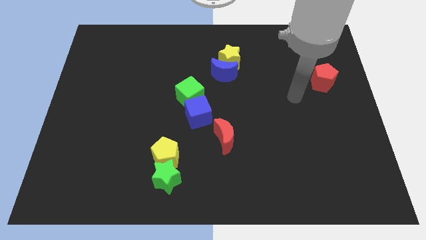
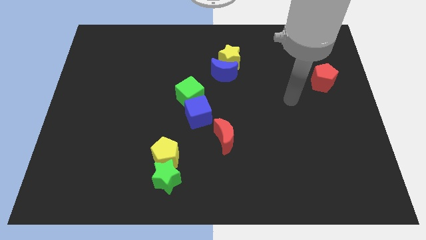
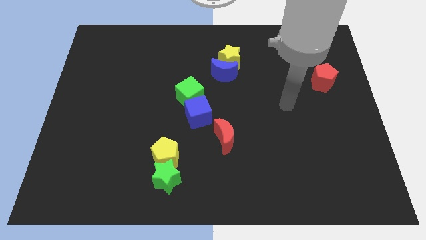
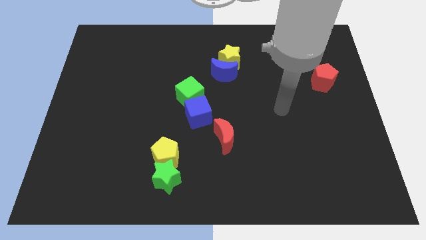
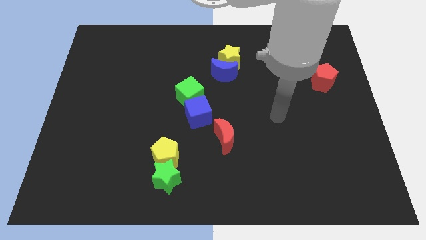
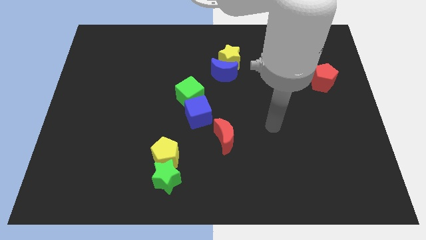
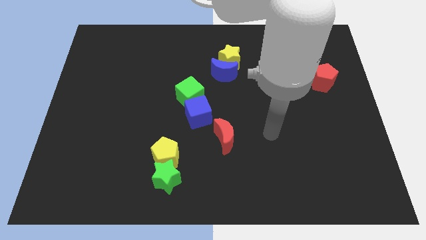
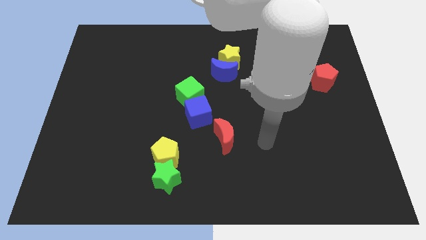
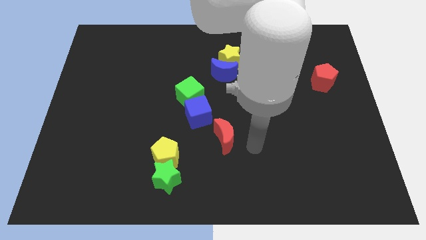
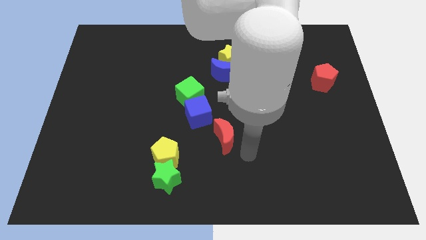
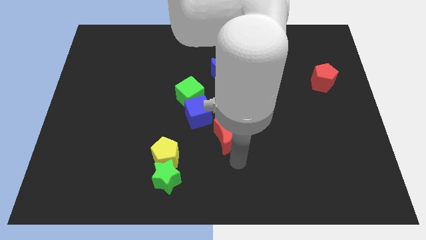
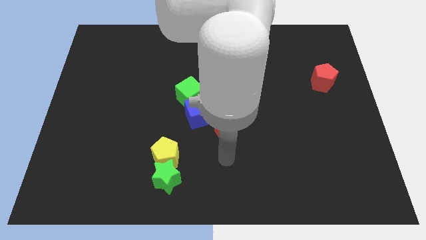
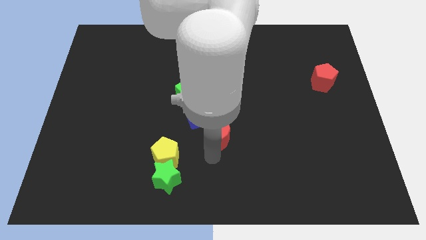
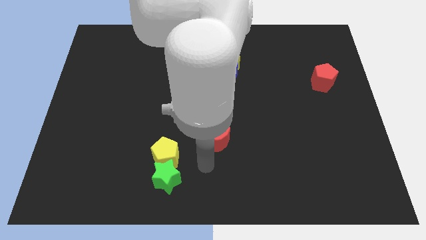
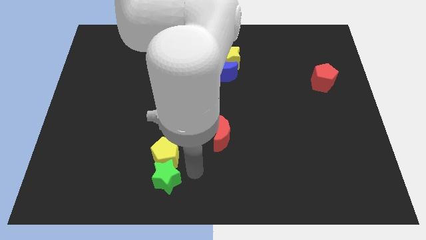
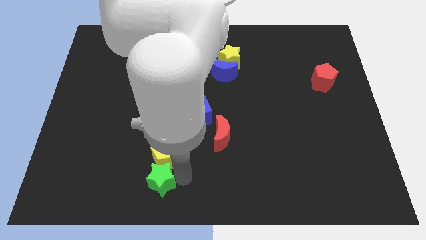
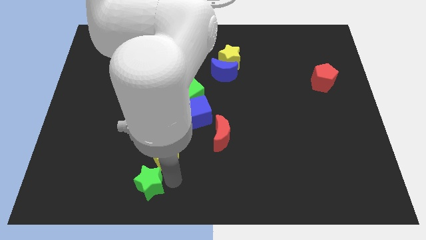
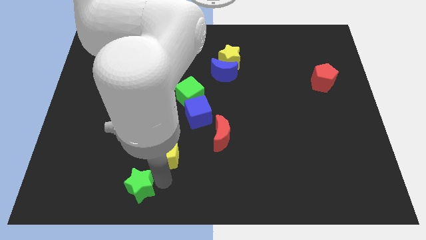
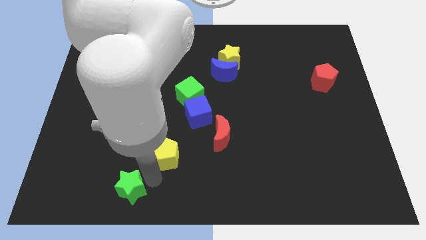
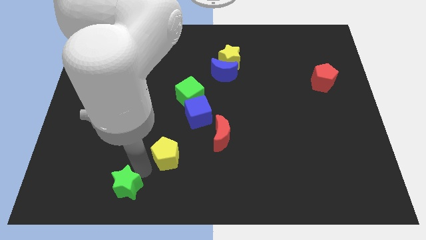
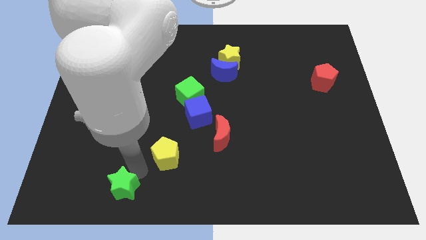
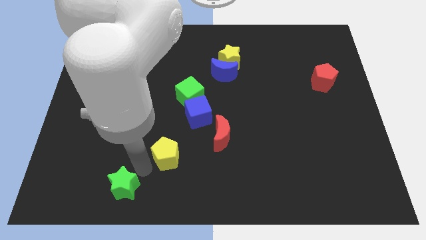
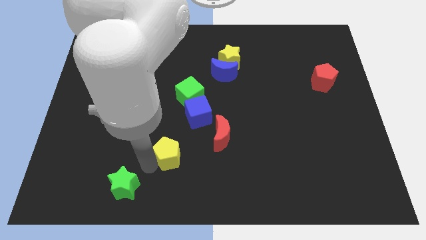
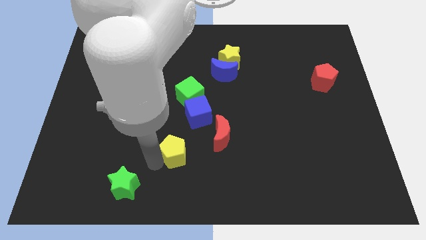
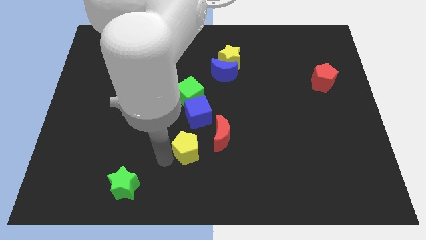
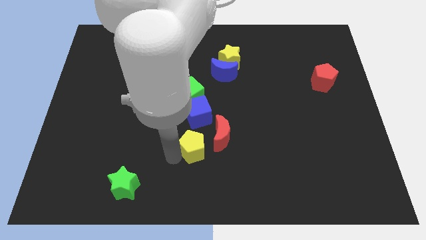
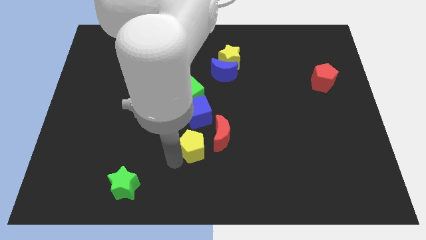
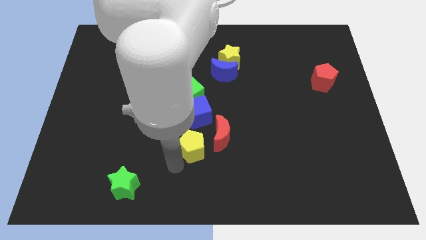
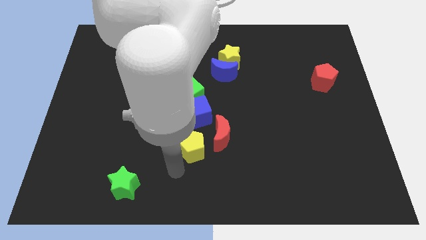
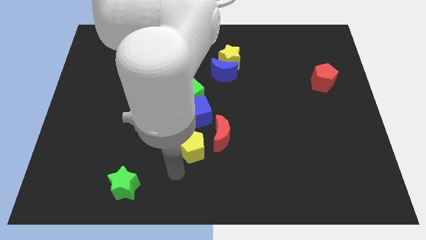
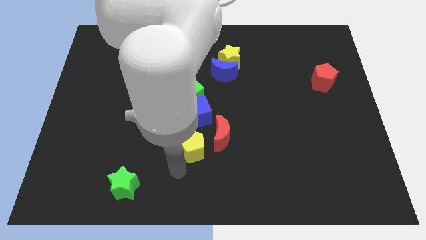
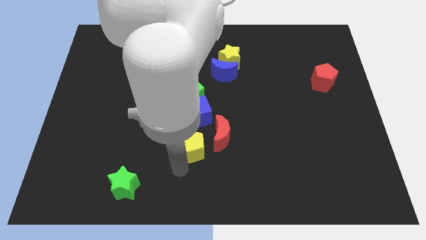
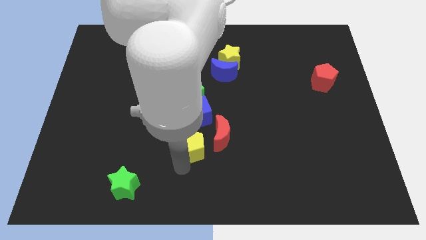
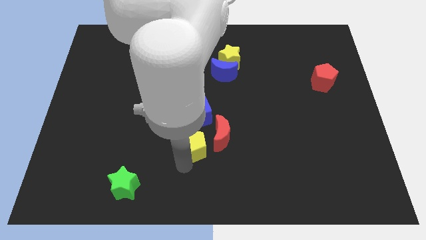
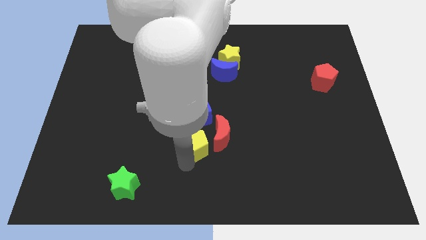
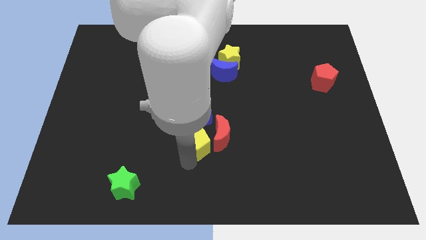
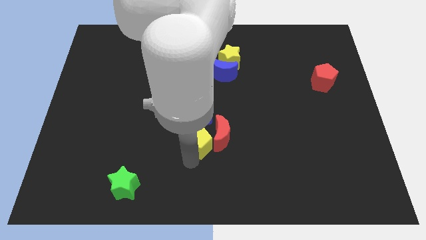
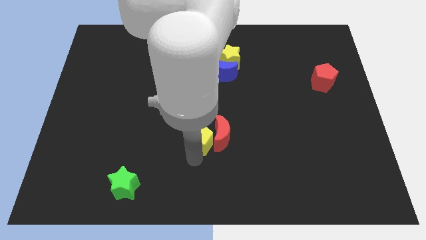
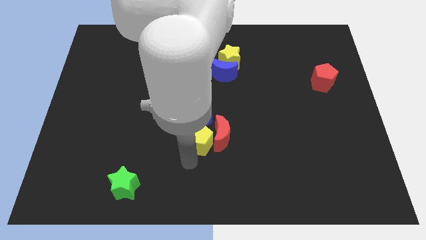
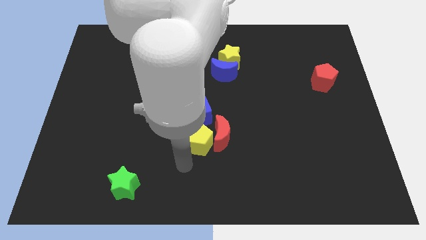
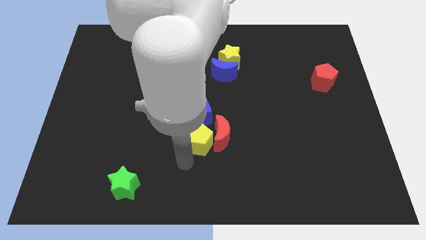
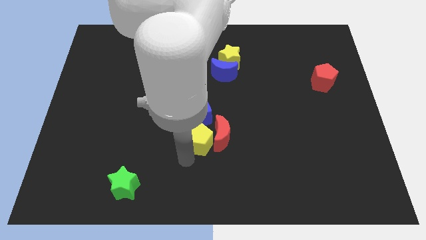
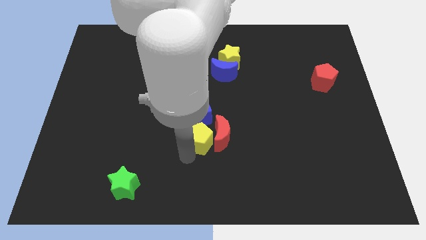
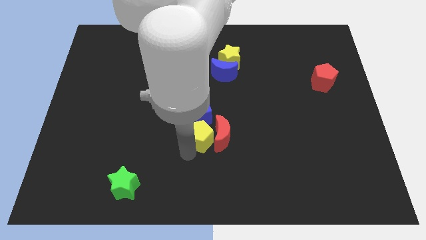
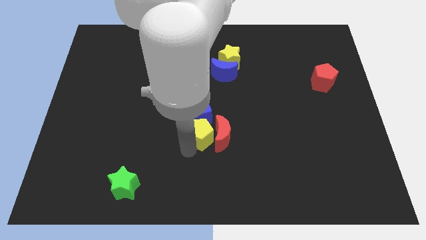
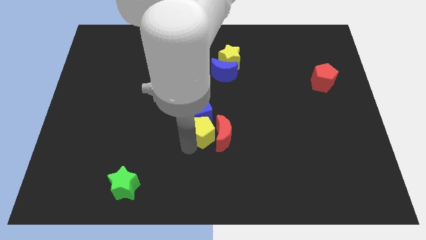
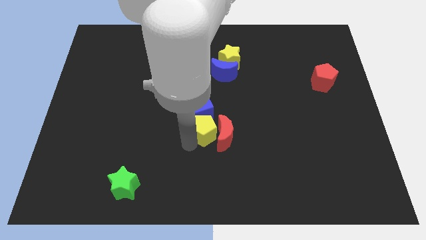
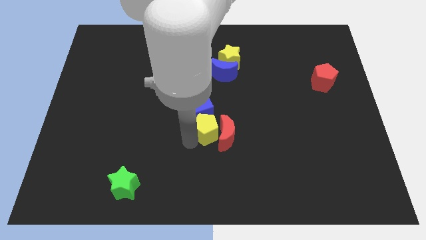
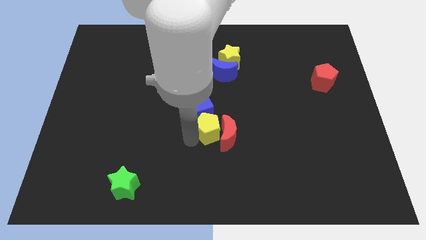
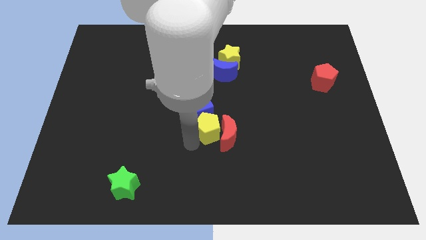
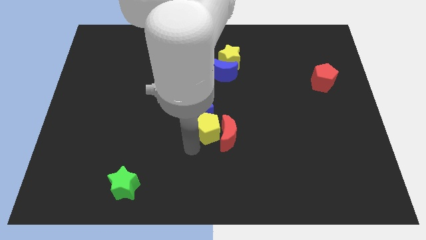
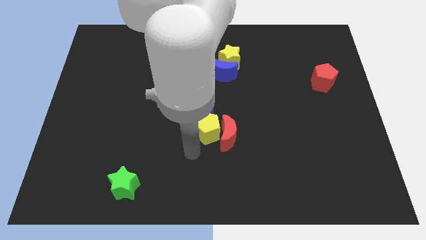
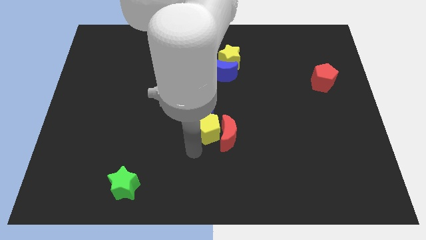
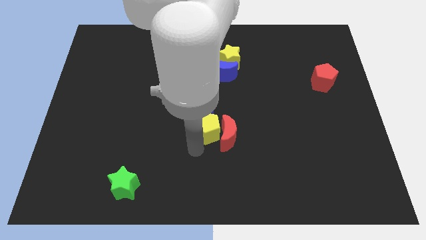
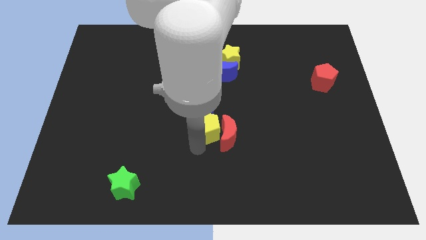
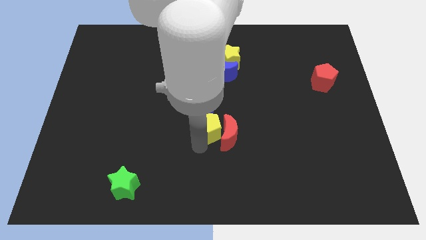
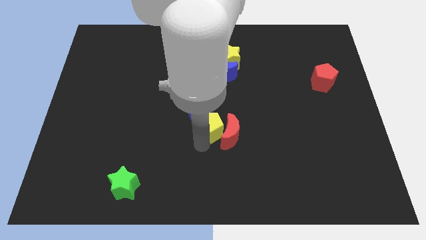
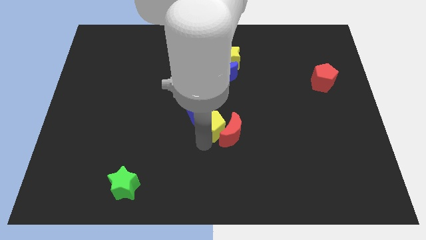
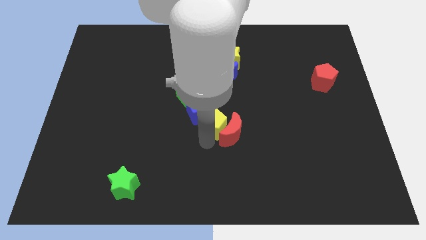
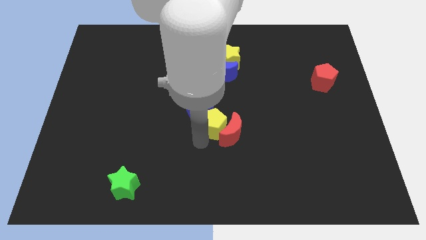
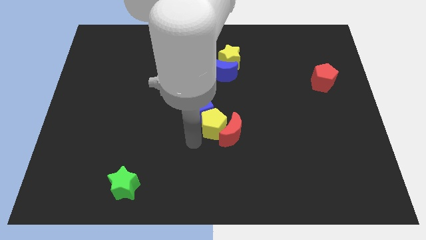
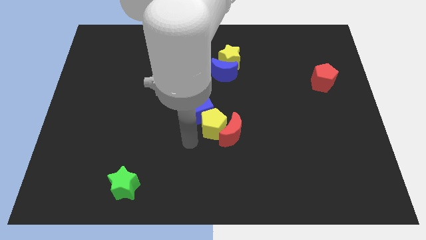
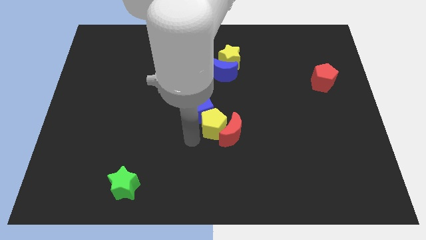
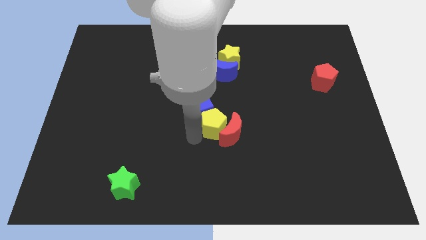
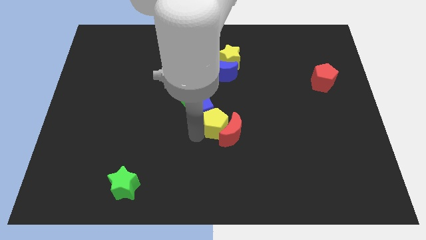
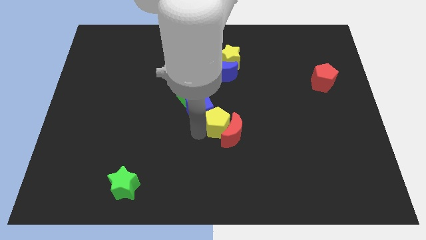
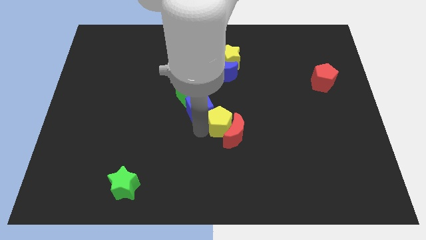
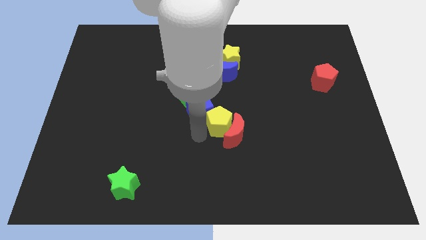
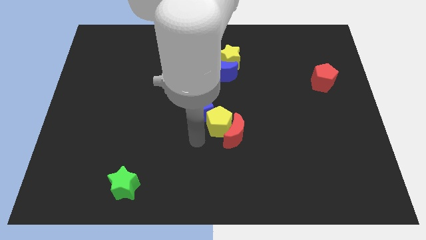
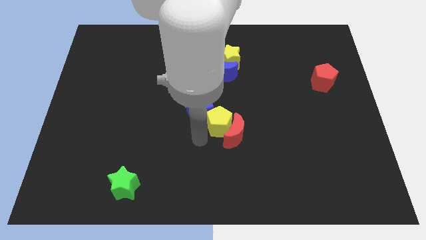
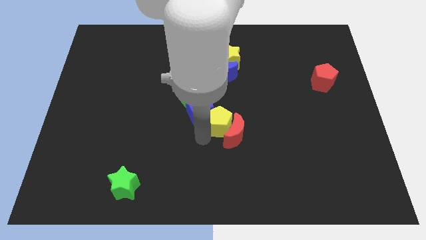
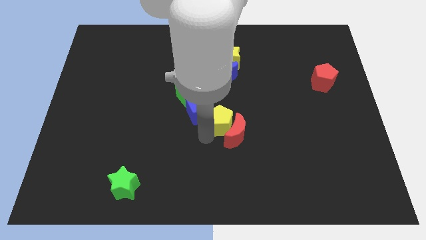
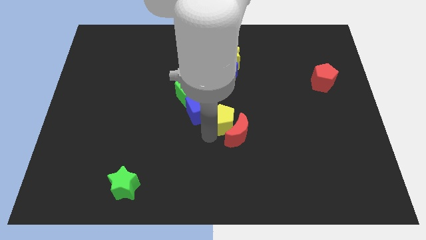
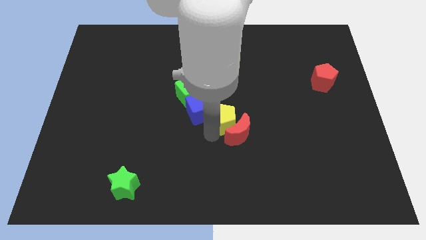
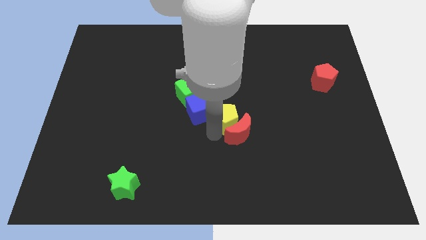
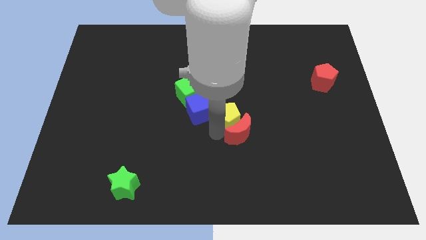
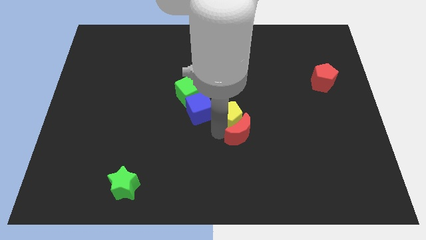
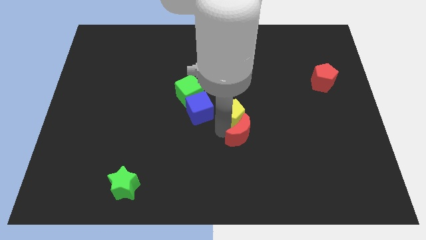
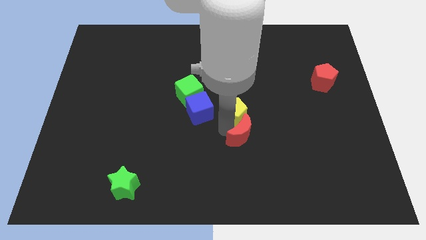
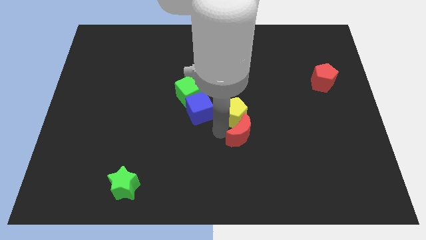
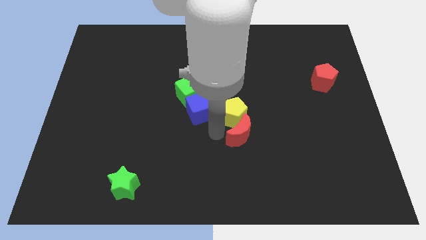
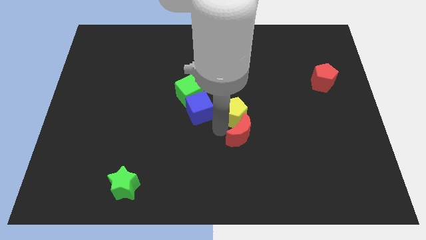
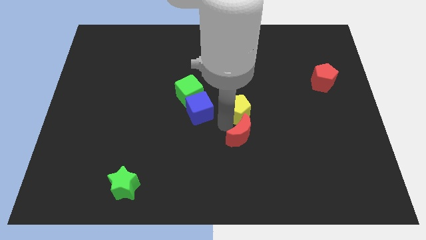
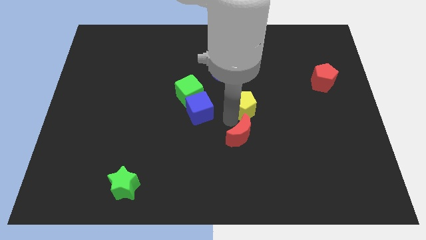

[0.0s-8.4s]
push the yellow pentagon up and then to the right
